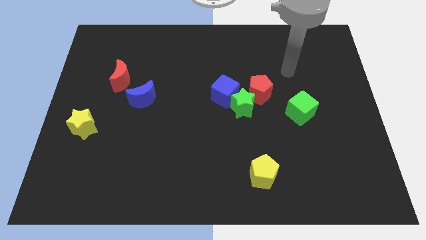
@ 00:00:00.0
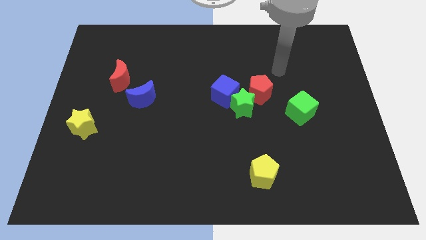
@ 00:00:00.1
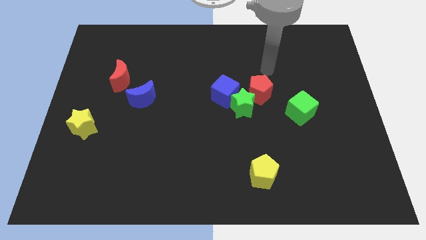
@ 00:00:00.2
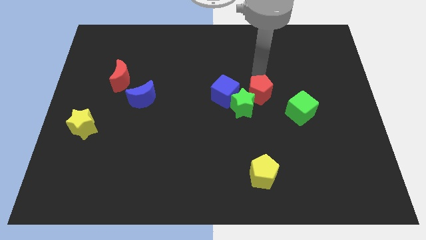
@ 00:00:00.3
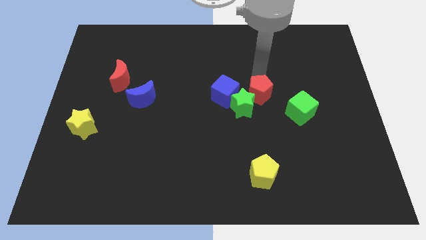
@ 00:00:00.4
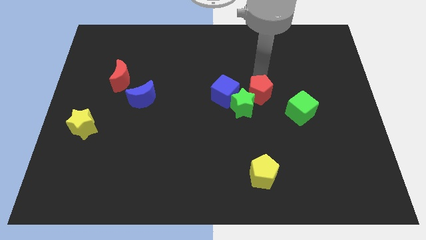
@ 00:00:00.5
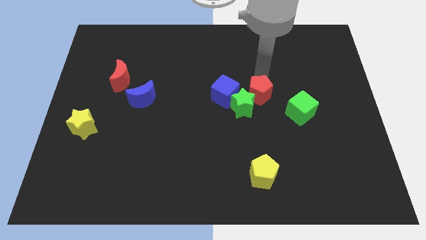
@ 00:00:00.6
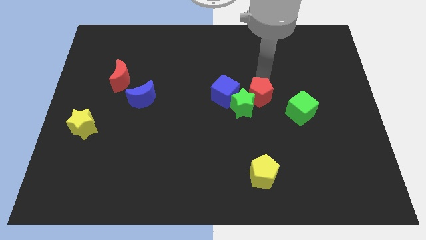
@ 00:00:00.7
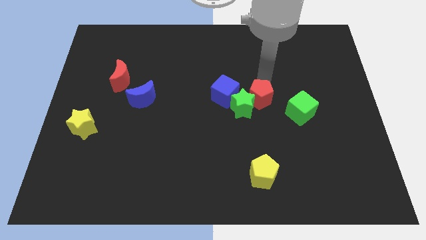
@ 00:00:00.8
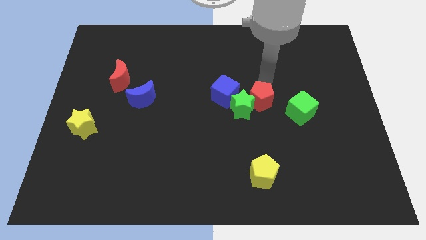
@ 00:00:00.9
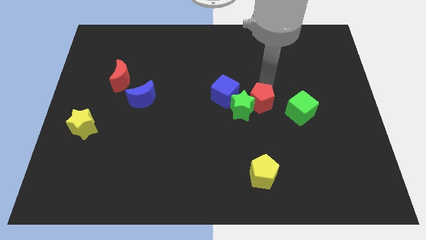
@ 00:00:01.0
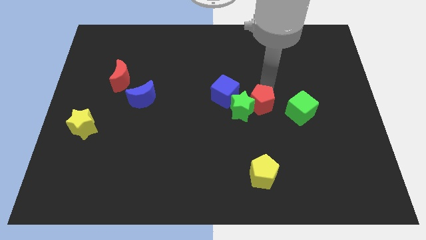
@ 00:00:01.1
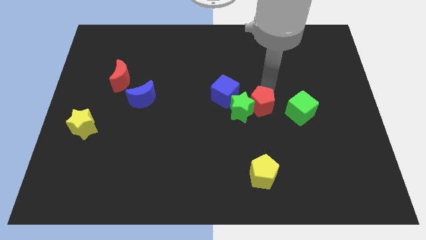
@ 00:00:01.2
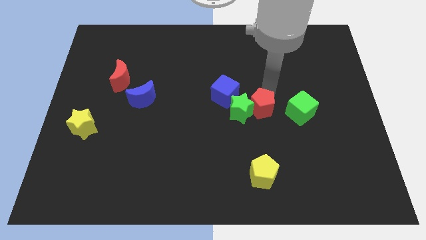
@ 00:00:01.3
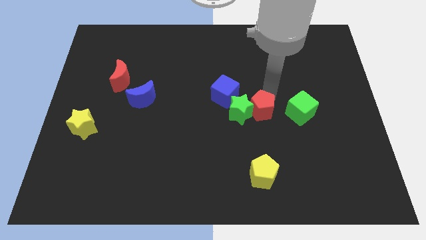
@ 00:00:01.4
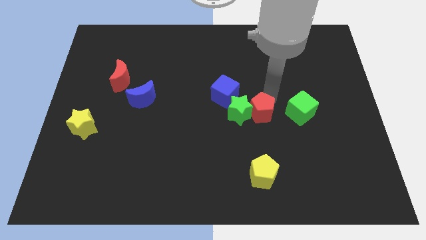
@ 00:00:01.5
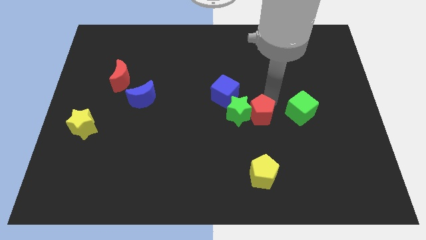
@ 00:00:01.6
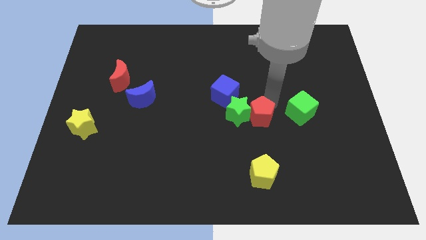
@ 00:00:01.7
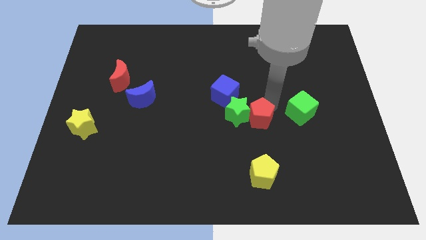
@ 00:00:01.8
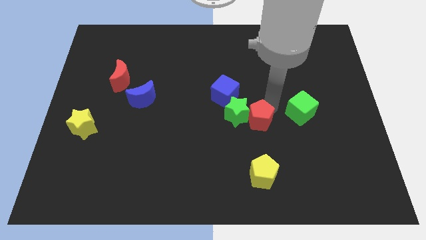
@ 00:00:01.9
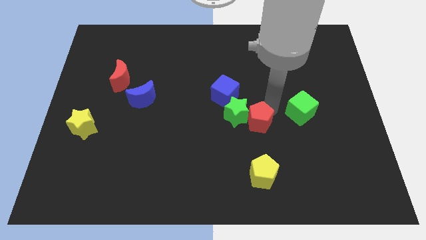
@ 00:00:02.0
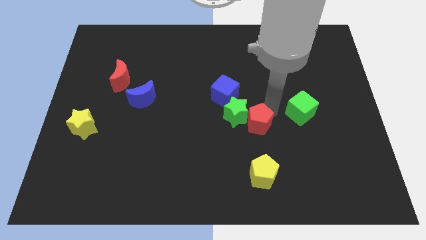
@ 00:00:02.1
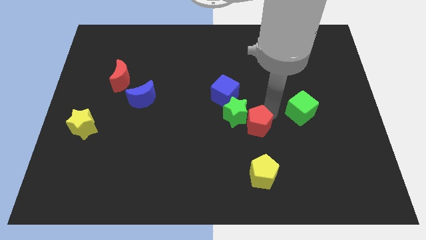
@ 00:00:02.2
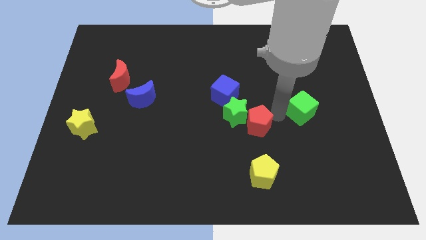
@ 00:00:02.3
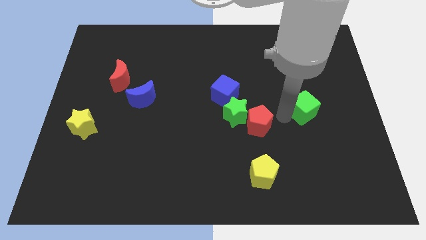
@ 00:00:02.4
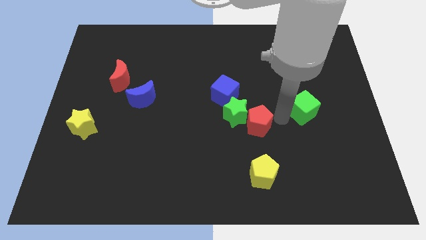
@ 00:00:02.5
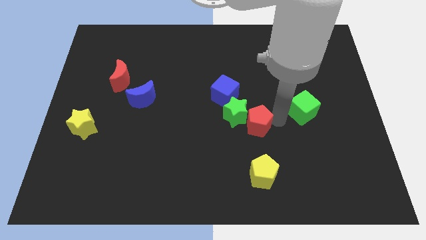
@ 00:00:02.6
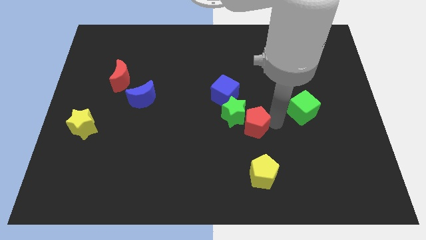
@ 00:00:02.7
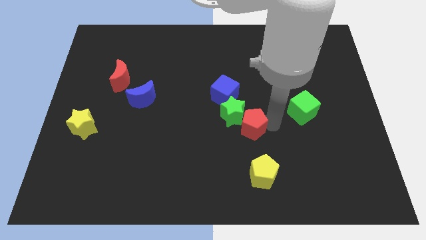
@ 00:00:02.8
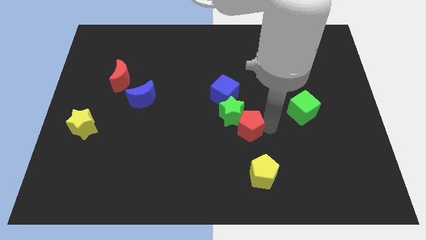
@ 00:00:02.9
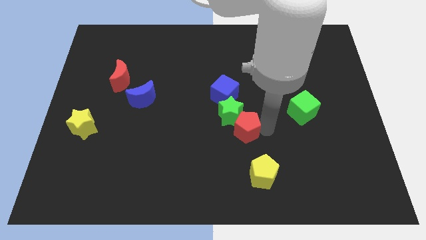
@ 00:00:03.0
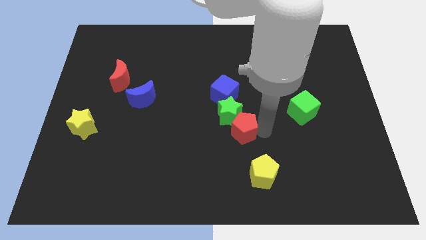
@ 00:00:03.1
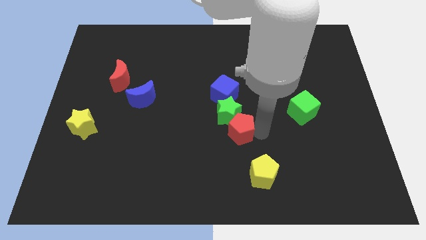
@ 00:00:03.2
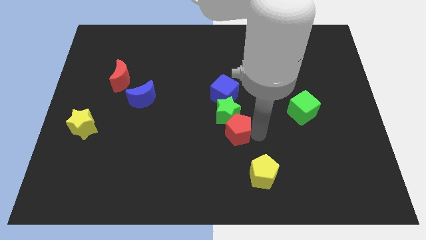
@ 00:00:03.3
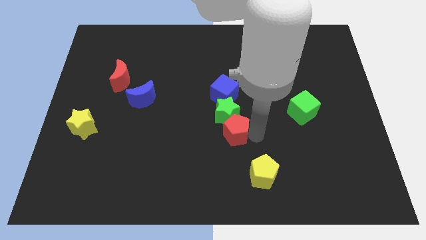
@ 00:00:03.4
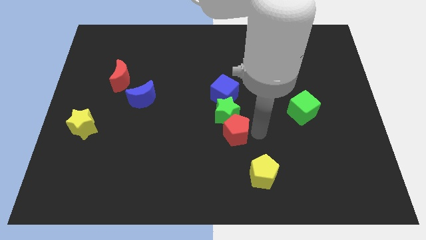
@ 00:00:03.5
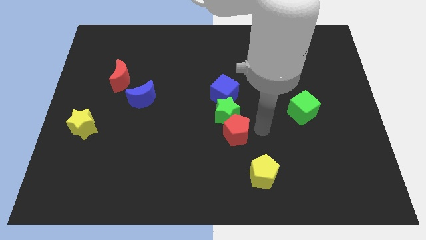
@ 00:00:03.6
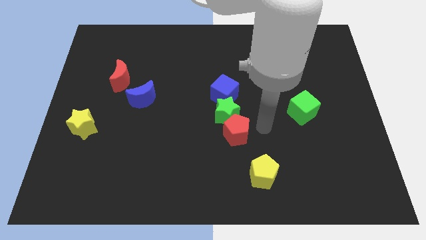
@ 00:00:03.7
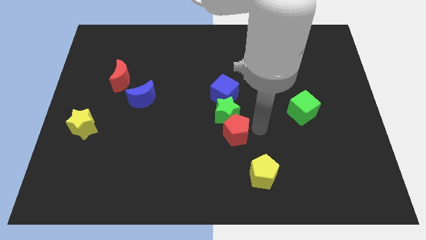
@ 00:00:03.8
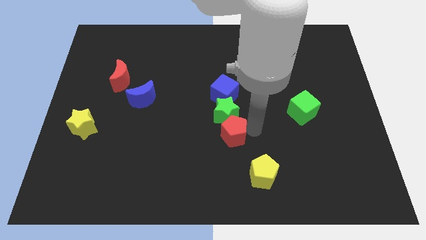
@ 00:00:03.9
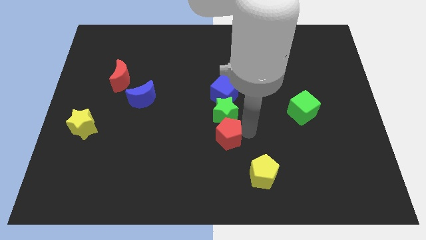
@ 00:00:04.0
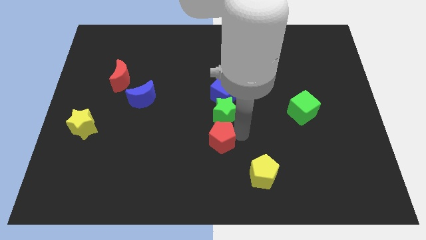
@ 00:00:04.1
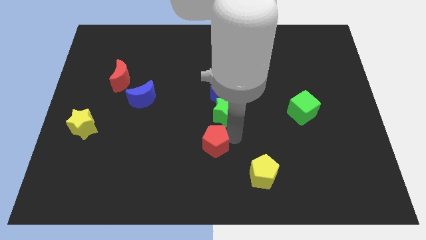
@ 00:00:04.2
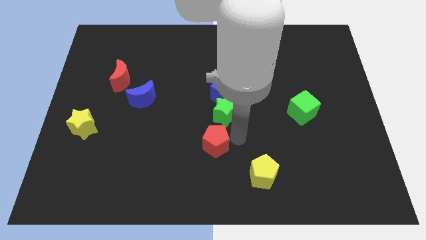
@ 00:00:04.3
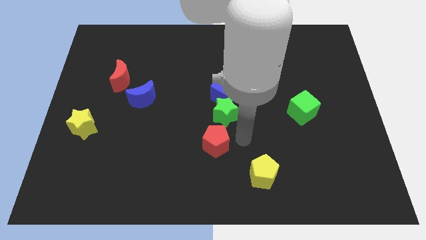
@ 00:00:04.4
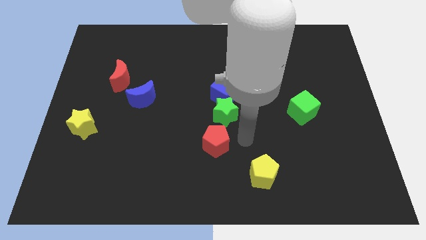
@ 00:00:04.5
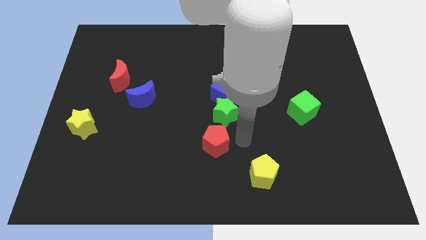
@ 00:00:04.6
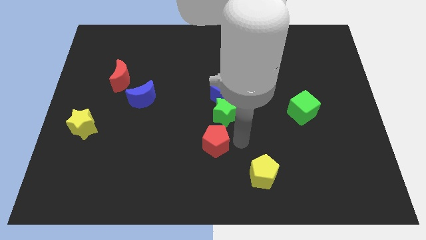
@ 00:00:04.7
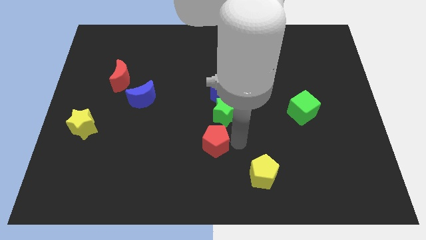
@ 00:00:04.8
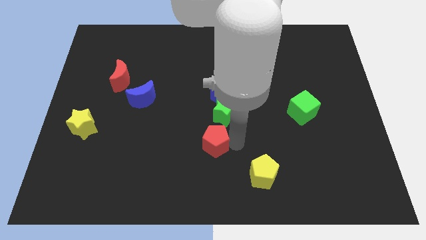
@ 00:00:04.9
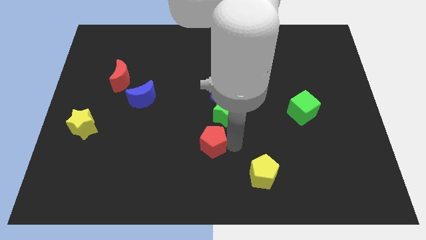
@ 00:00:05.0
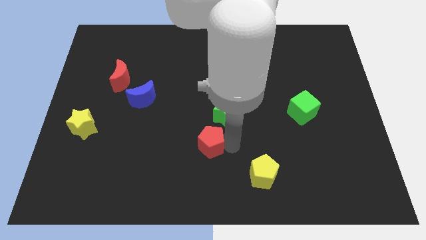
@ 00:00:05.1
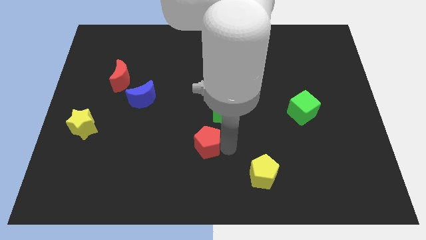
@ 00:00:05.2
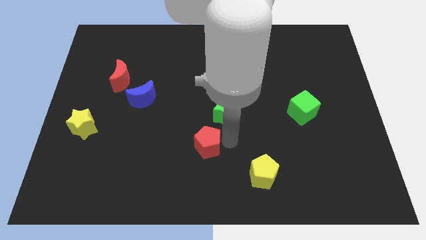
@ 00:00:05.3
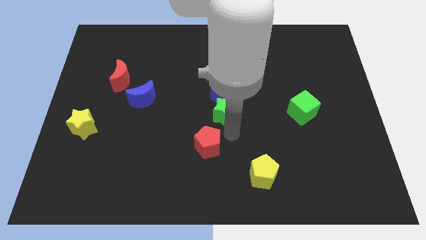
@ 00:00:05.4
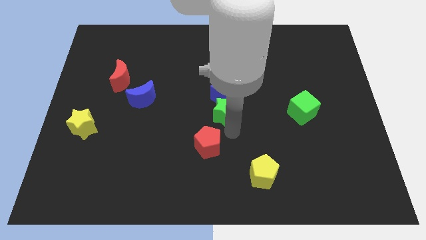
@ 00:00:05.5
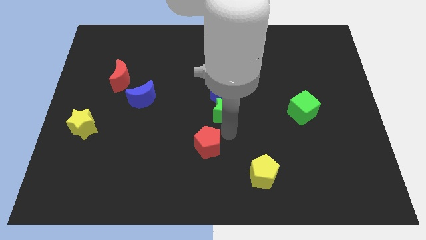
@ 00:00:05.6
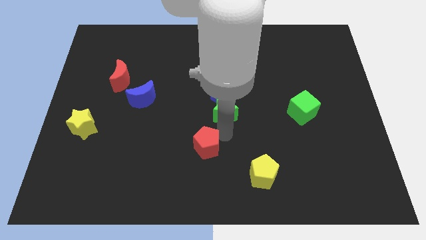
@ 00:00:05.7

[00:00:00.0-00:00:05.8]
slide the red pentagon diagonally down and left

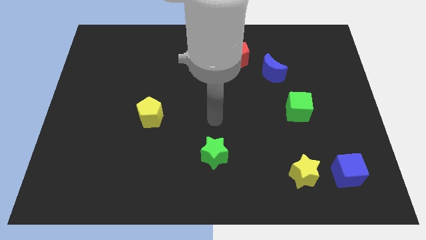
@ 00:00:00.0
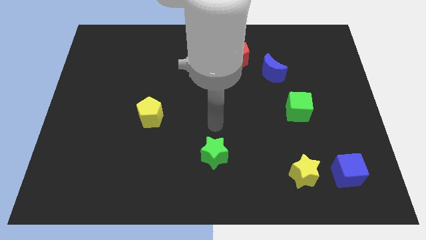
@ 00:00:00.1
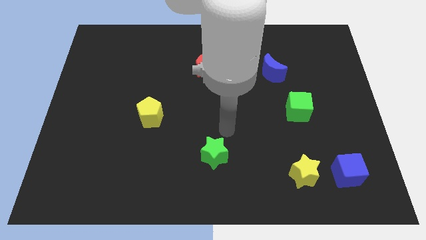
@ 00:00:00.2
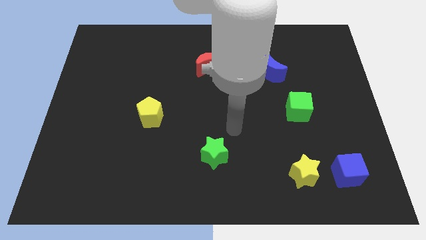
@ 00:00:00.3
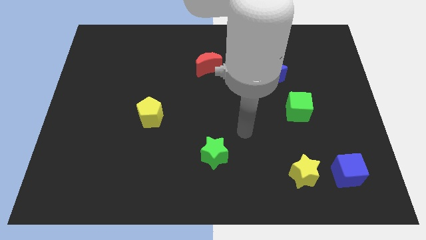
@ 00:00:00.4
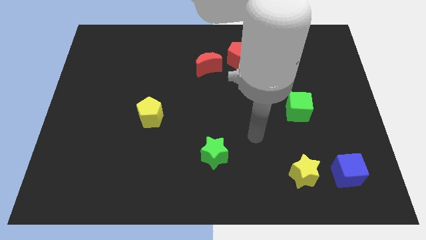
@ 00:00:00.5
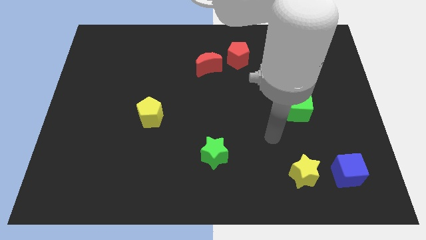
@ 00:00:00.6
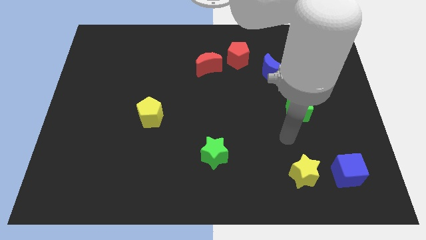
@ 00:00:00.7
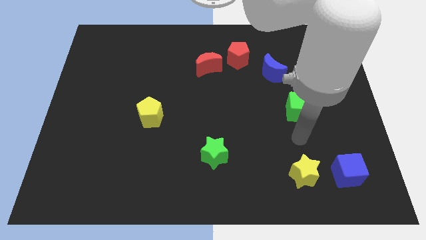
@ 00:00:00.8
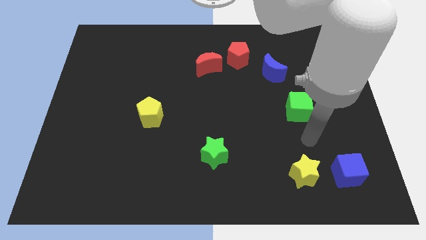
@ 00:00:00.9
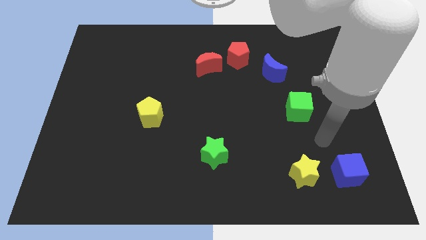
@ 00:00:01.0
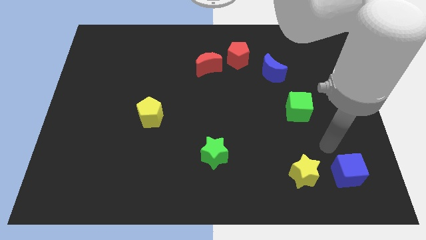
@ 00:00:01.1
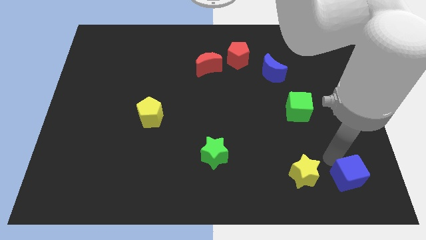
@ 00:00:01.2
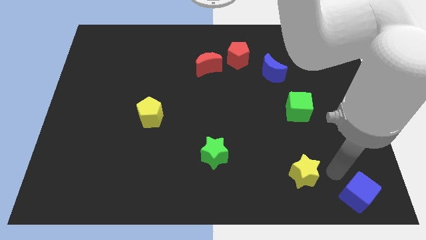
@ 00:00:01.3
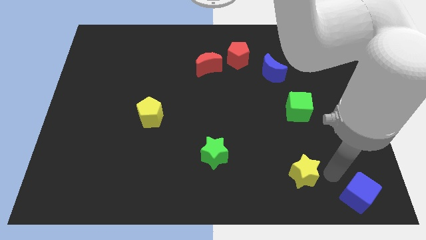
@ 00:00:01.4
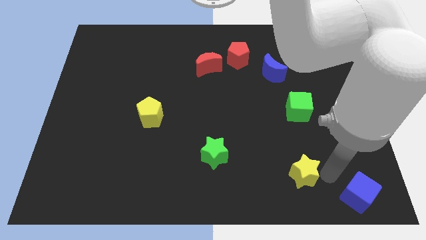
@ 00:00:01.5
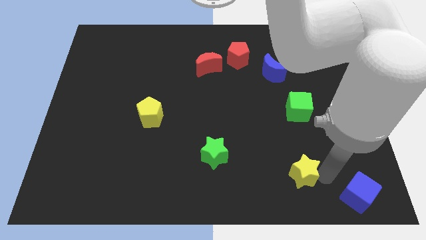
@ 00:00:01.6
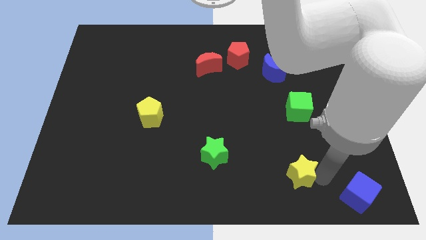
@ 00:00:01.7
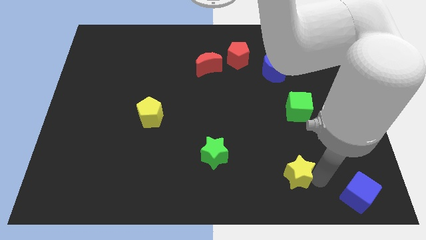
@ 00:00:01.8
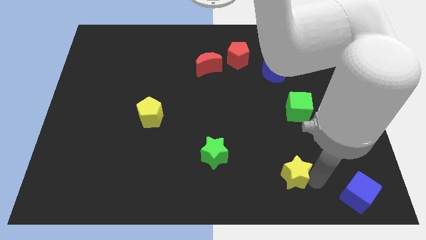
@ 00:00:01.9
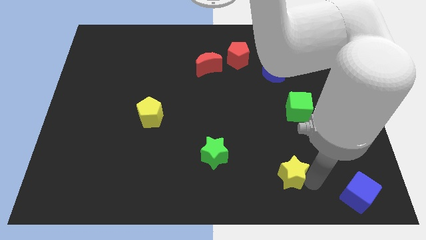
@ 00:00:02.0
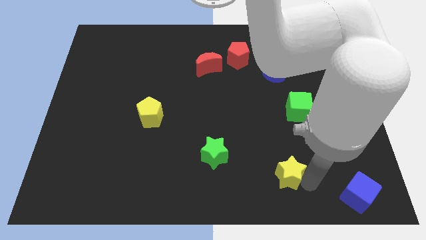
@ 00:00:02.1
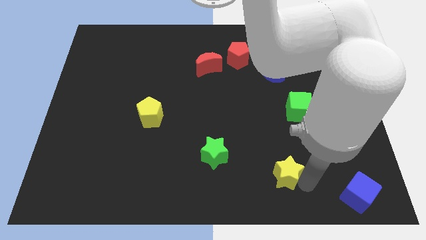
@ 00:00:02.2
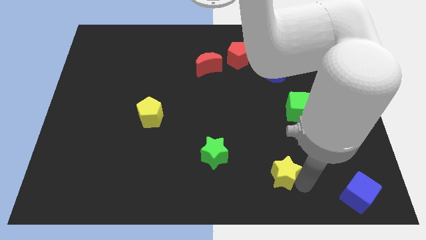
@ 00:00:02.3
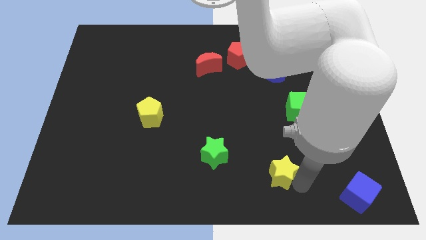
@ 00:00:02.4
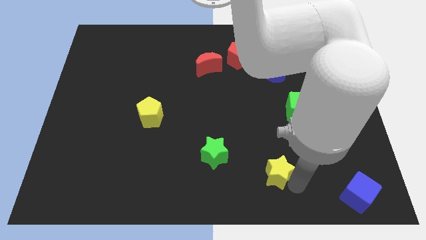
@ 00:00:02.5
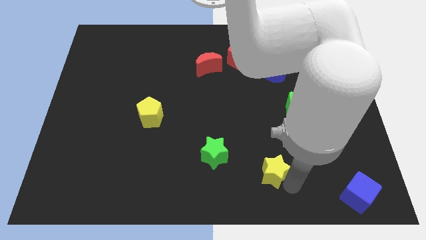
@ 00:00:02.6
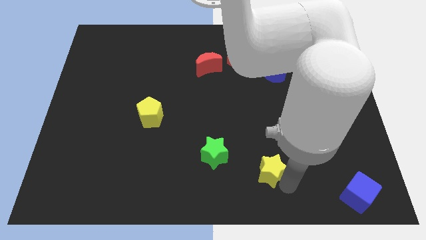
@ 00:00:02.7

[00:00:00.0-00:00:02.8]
move the yellow star to the left a bit
